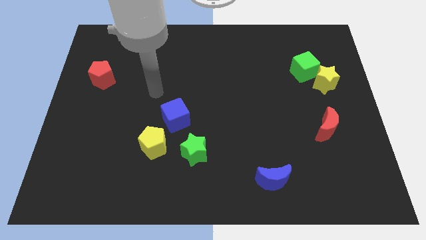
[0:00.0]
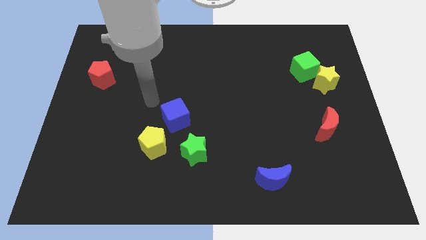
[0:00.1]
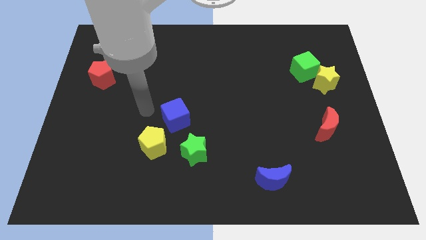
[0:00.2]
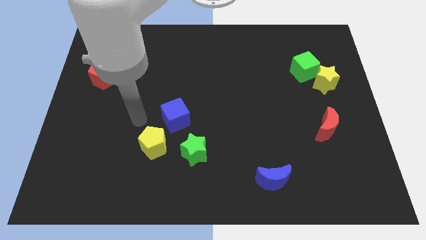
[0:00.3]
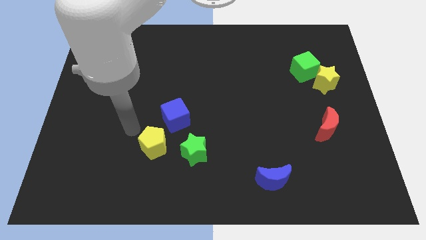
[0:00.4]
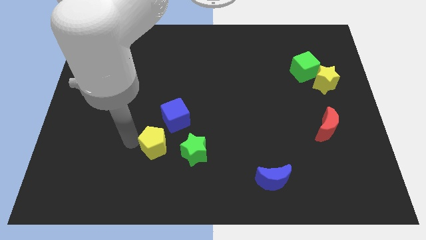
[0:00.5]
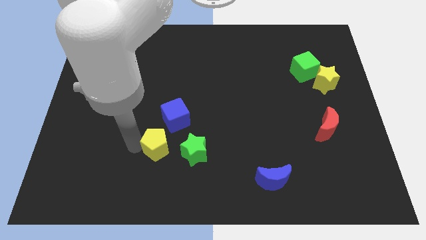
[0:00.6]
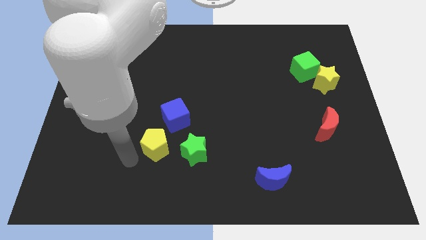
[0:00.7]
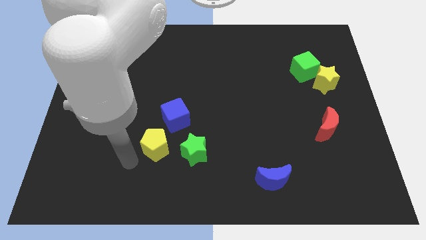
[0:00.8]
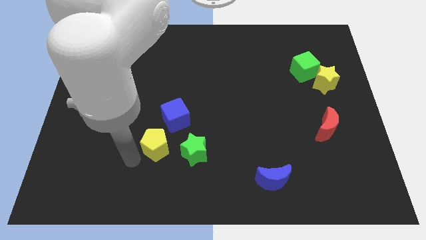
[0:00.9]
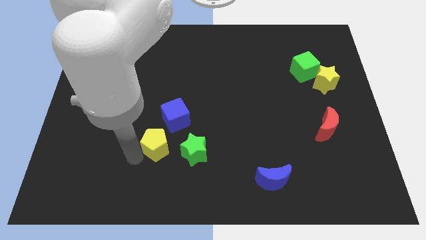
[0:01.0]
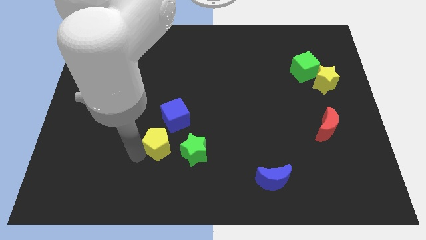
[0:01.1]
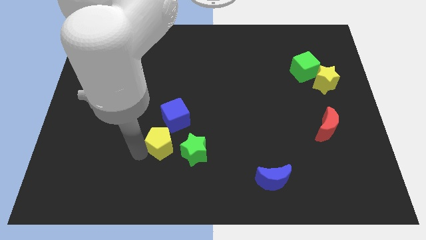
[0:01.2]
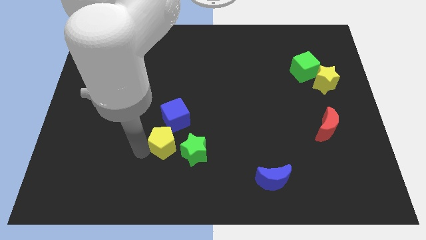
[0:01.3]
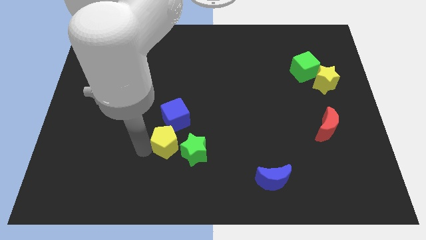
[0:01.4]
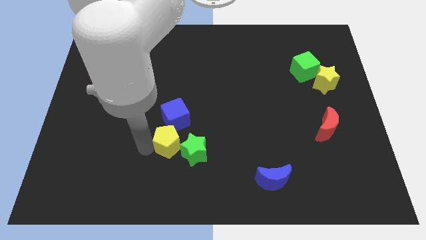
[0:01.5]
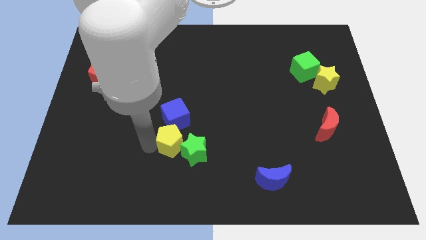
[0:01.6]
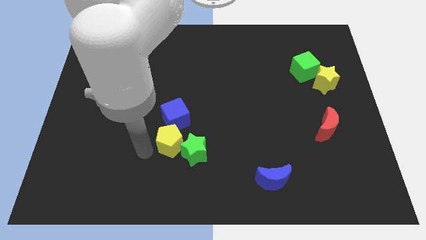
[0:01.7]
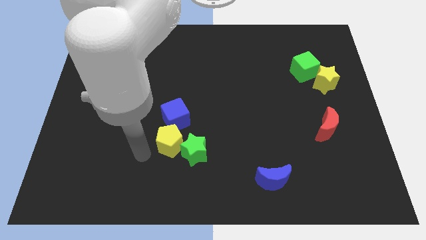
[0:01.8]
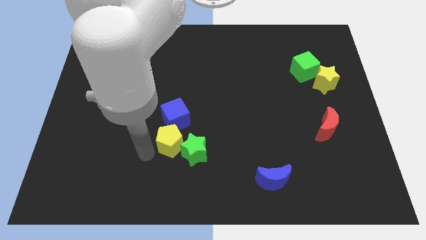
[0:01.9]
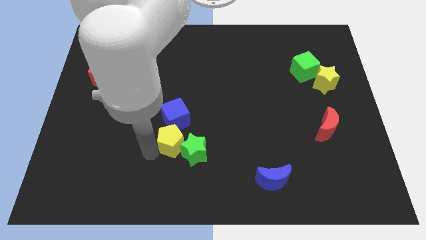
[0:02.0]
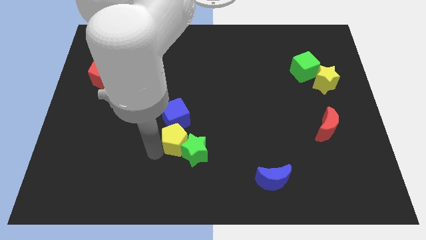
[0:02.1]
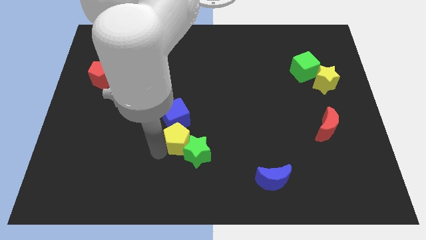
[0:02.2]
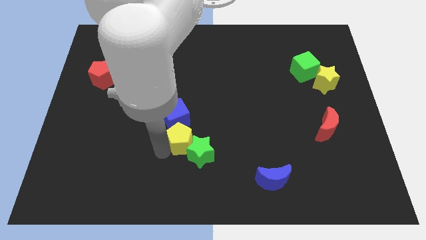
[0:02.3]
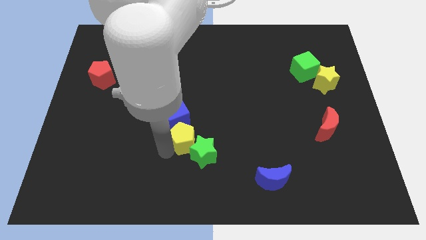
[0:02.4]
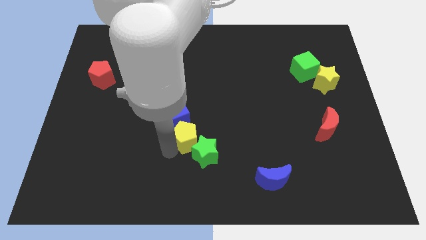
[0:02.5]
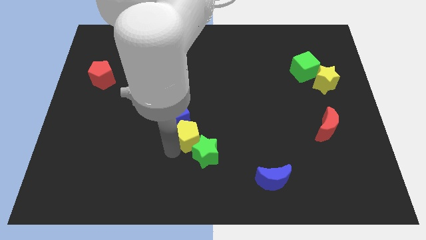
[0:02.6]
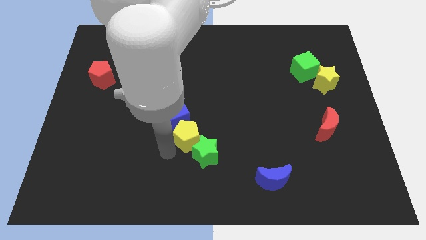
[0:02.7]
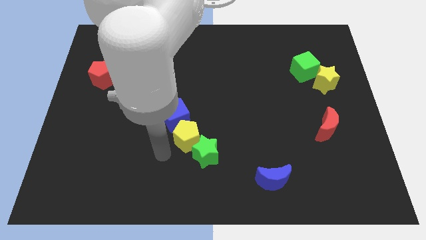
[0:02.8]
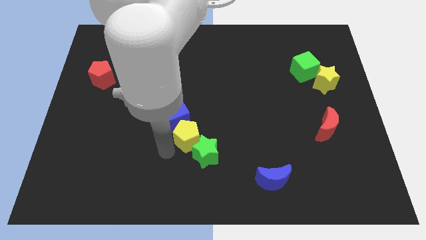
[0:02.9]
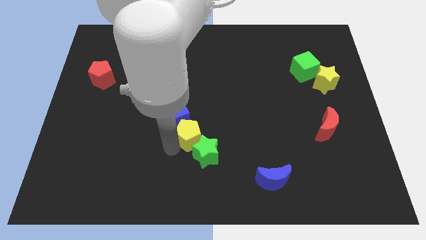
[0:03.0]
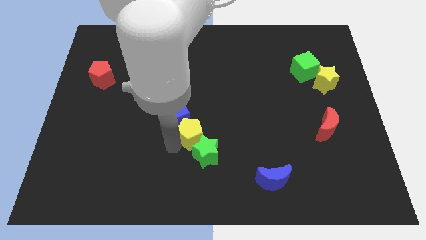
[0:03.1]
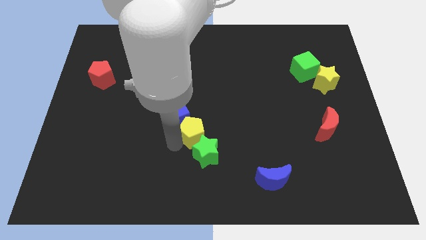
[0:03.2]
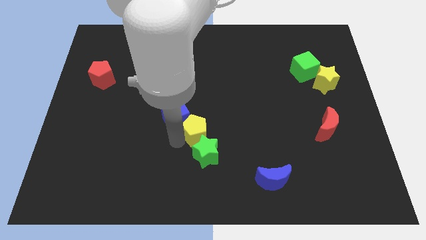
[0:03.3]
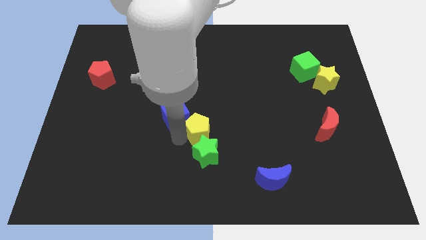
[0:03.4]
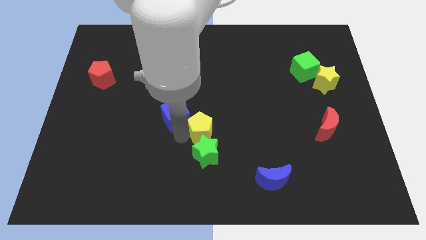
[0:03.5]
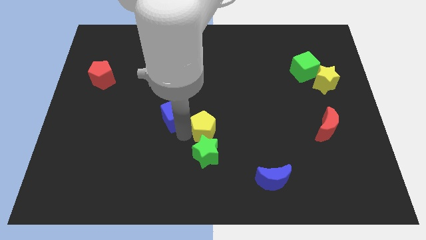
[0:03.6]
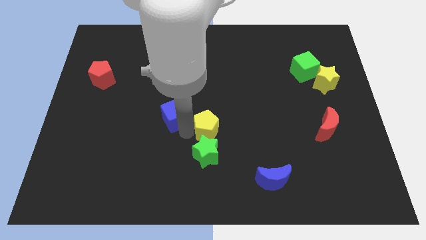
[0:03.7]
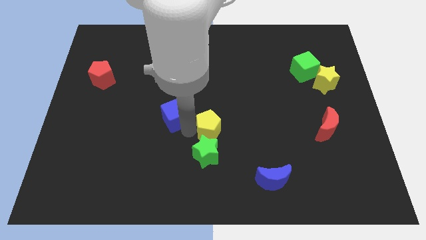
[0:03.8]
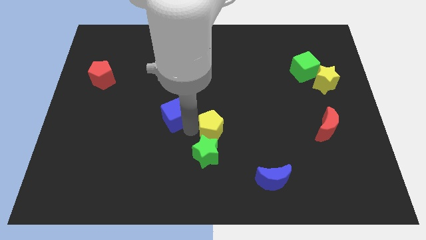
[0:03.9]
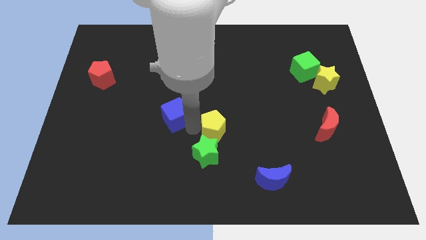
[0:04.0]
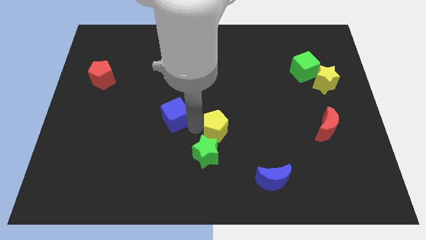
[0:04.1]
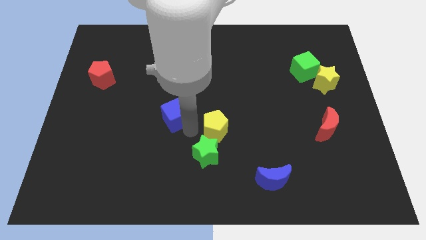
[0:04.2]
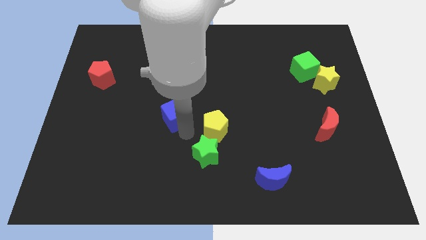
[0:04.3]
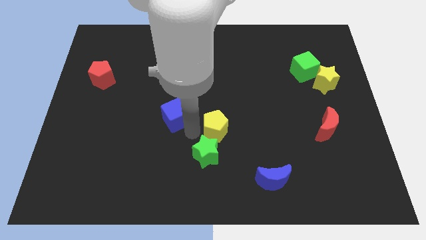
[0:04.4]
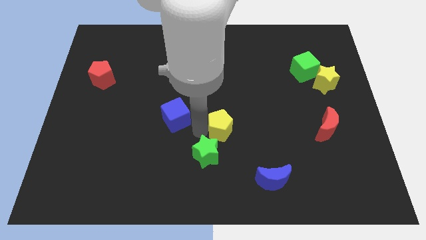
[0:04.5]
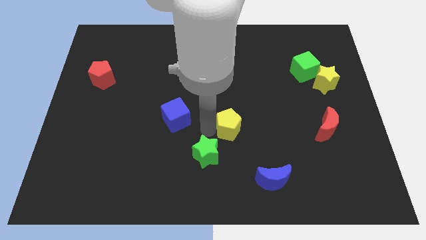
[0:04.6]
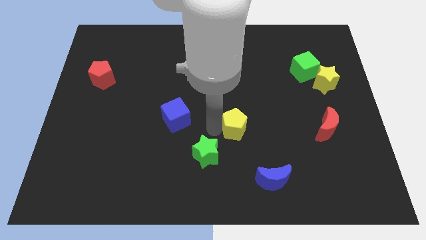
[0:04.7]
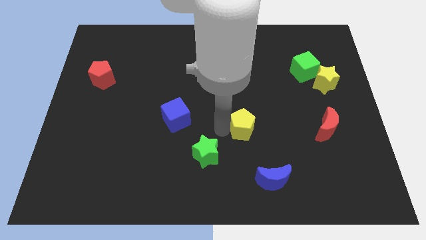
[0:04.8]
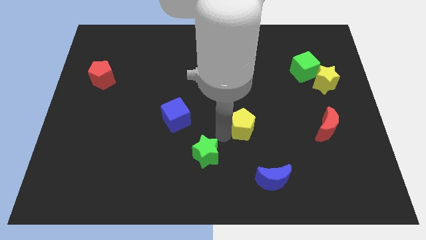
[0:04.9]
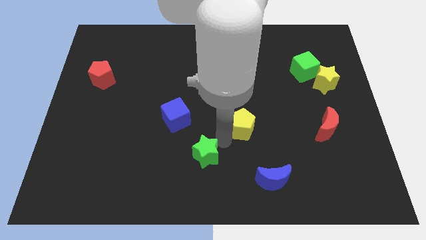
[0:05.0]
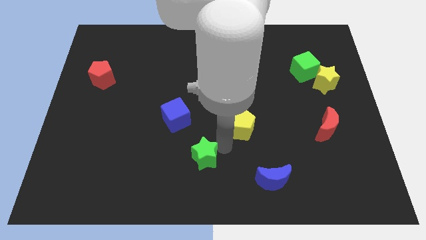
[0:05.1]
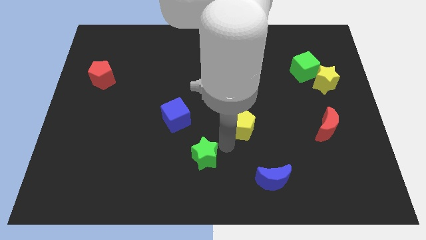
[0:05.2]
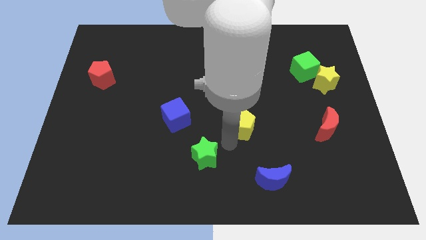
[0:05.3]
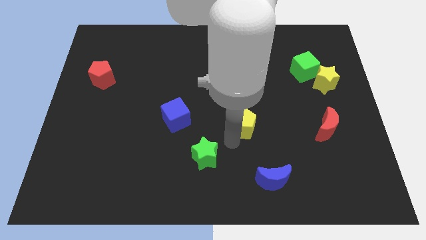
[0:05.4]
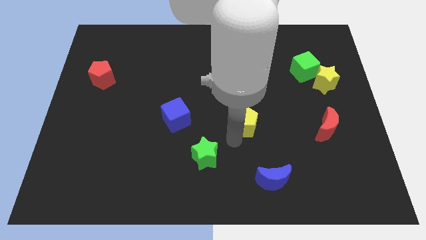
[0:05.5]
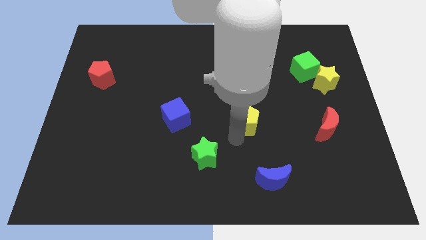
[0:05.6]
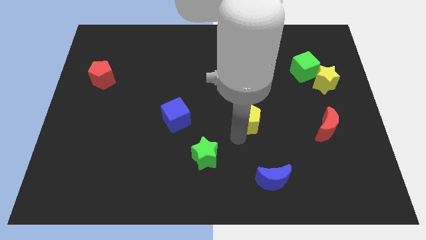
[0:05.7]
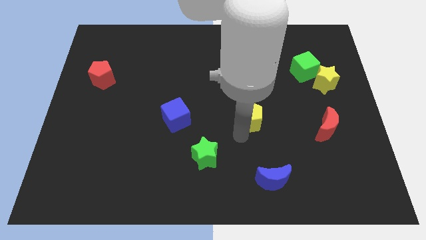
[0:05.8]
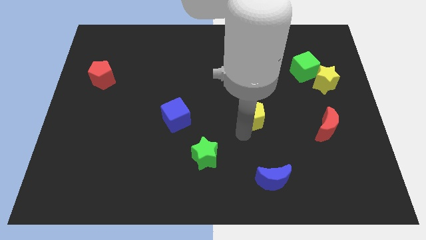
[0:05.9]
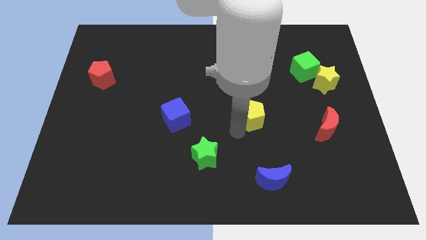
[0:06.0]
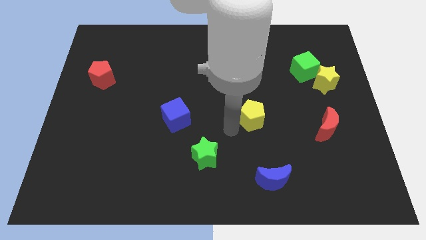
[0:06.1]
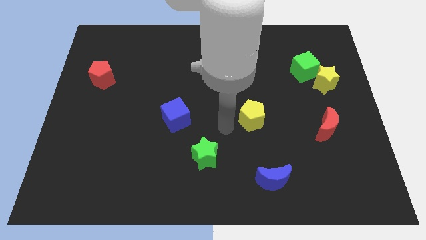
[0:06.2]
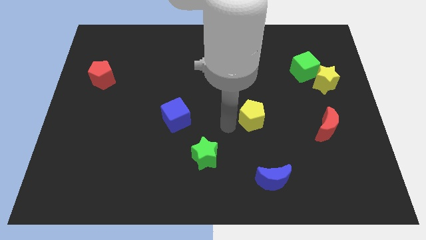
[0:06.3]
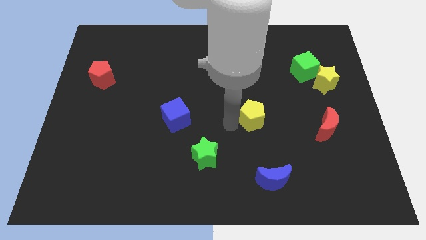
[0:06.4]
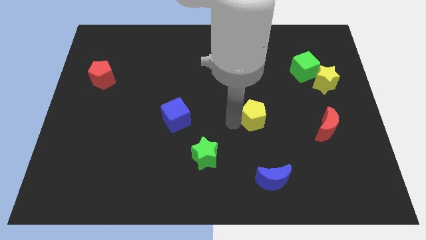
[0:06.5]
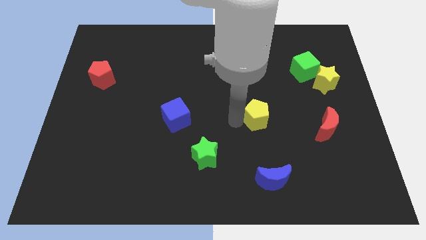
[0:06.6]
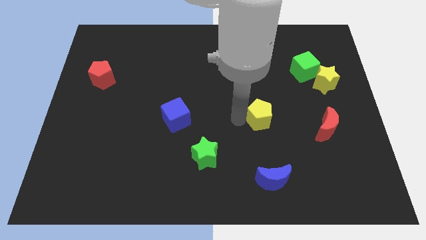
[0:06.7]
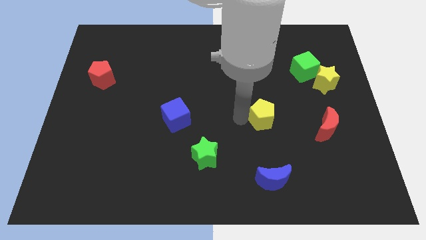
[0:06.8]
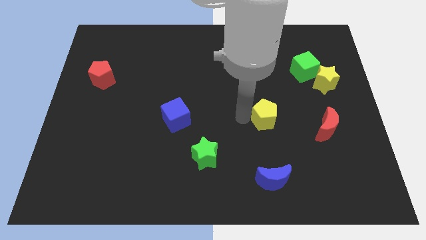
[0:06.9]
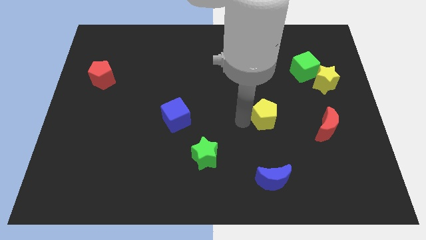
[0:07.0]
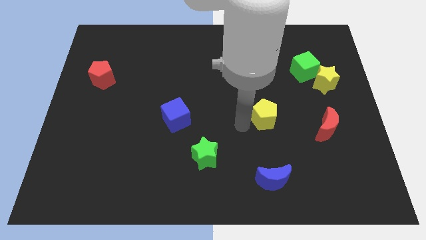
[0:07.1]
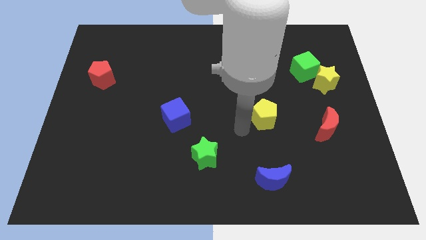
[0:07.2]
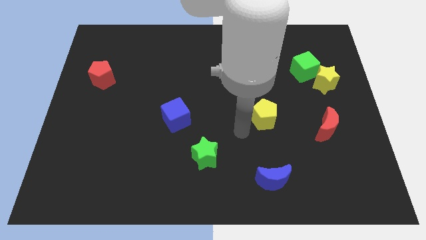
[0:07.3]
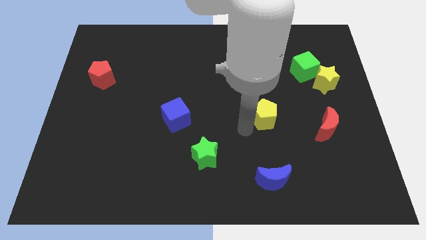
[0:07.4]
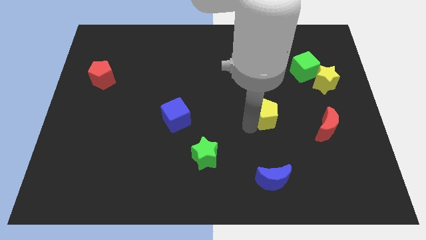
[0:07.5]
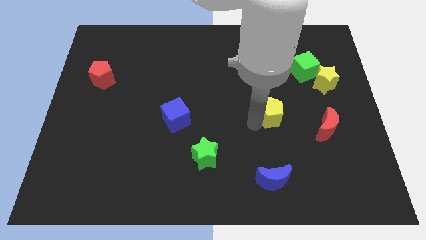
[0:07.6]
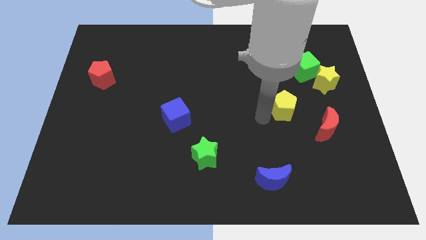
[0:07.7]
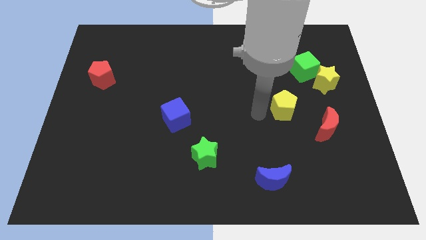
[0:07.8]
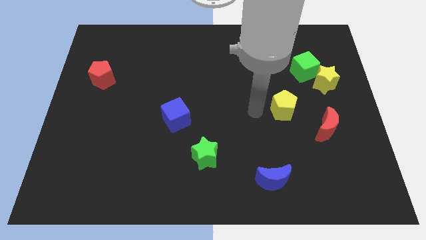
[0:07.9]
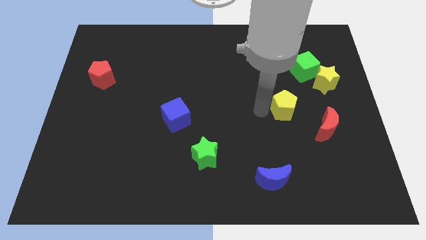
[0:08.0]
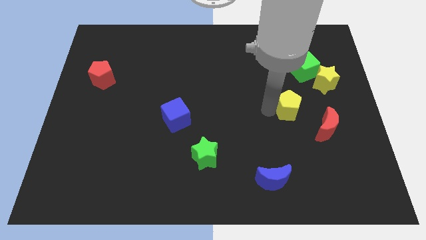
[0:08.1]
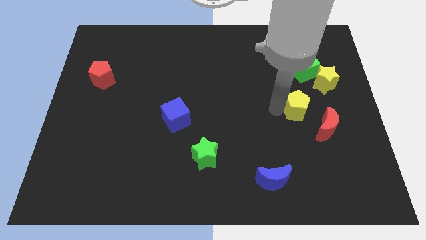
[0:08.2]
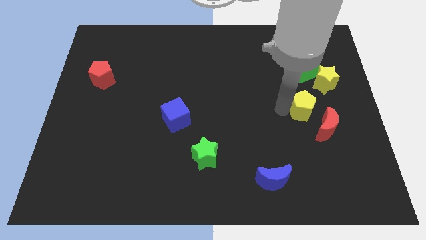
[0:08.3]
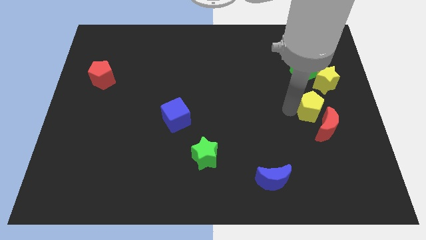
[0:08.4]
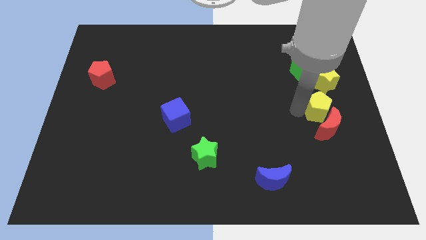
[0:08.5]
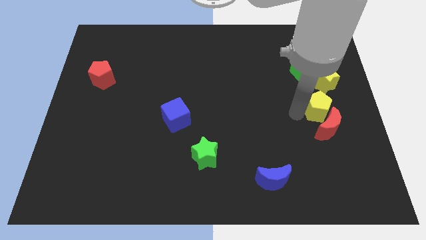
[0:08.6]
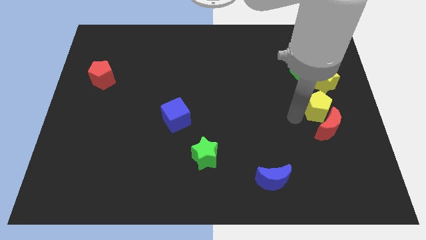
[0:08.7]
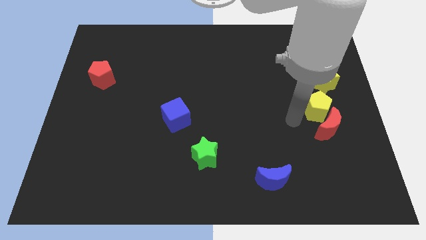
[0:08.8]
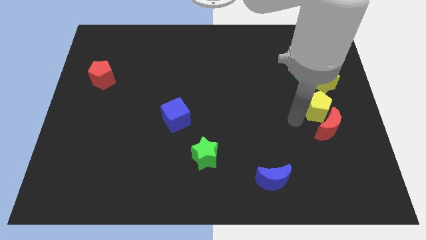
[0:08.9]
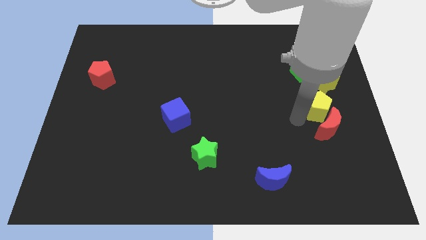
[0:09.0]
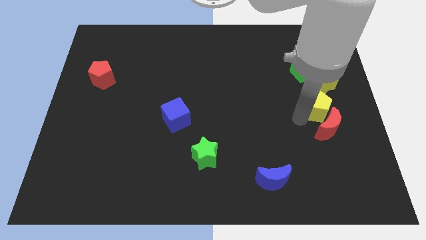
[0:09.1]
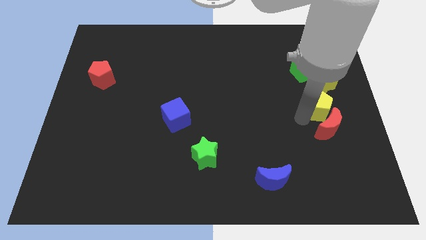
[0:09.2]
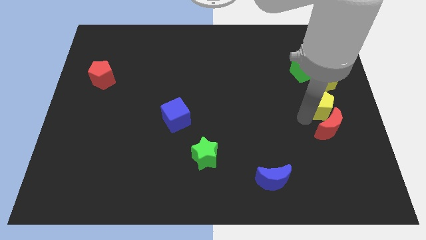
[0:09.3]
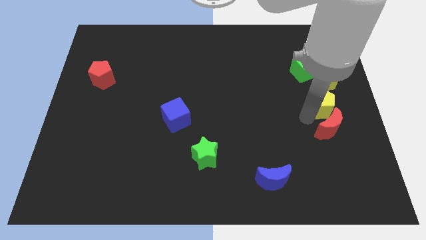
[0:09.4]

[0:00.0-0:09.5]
put the yellow pentagon to the right side of the board
